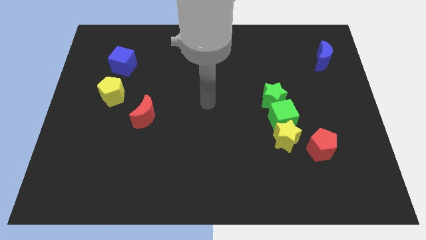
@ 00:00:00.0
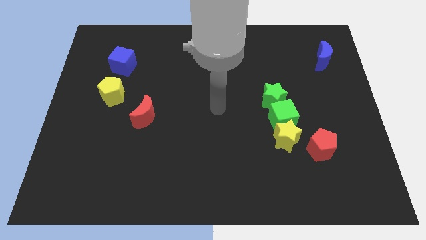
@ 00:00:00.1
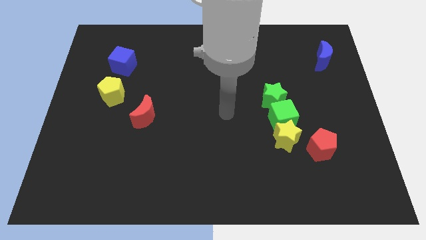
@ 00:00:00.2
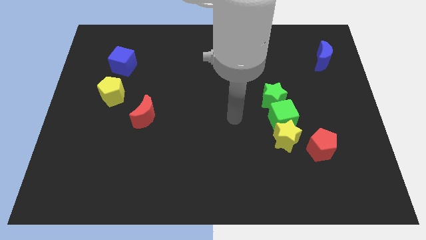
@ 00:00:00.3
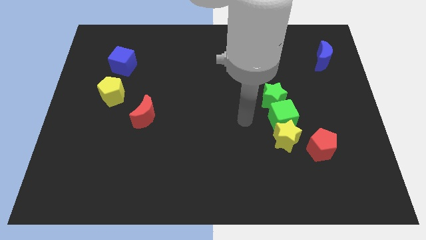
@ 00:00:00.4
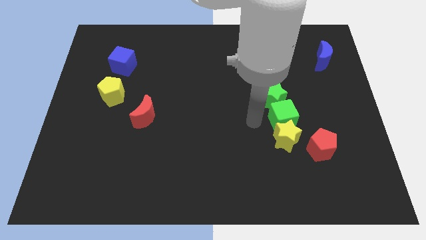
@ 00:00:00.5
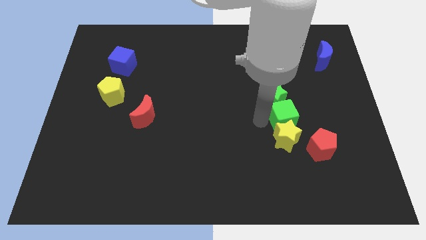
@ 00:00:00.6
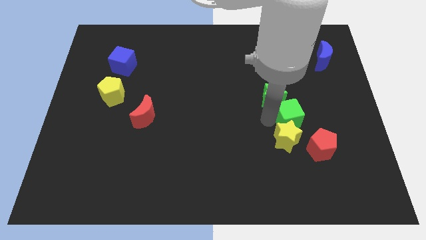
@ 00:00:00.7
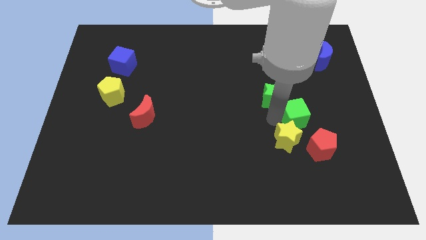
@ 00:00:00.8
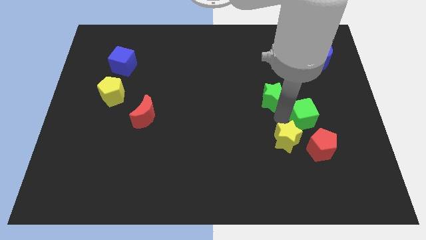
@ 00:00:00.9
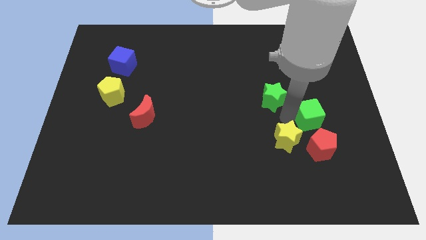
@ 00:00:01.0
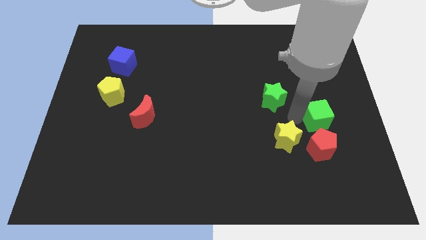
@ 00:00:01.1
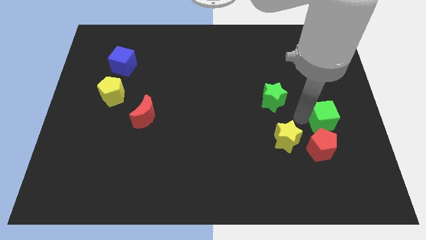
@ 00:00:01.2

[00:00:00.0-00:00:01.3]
pull the green cube apart from the yellow star and green star

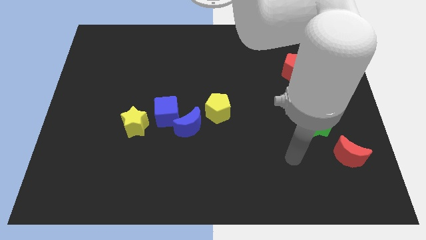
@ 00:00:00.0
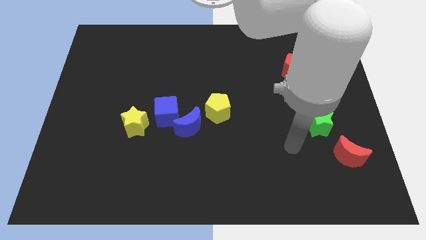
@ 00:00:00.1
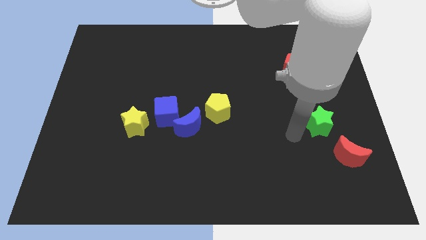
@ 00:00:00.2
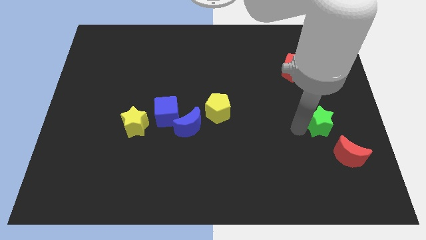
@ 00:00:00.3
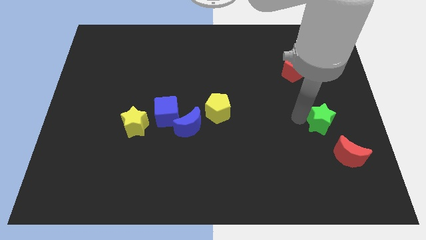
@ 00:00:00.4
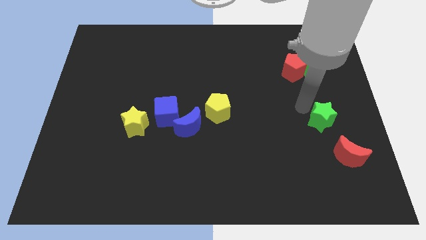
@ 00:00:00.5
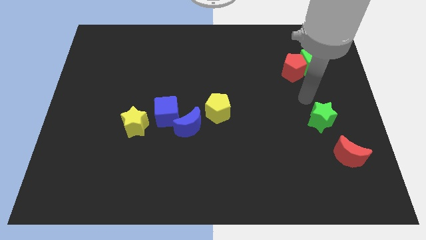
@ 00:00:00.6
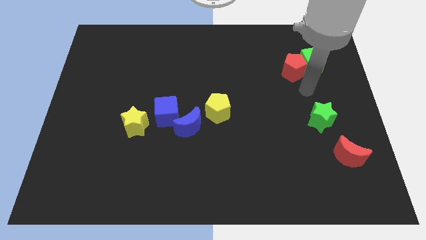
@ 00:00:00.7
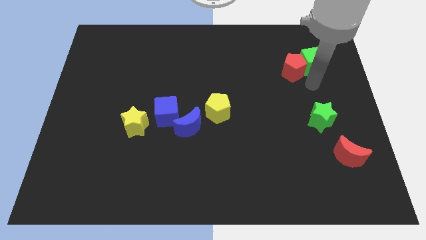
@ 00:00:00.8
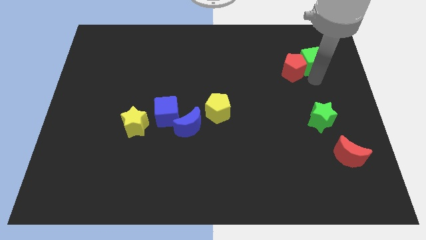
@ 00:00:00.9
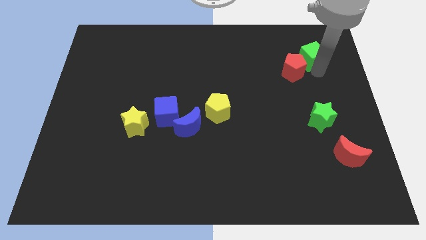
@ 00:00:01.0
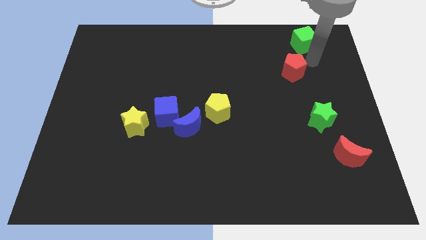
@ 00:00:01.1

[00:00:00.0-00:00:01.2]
pull the red pentagon apart from the green cube

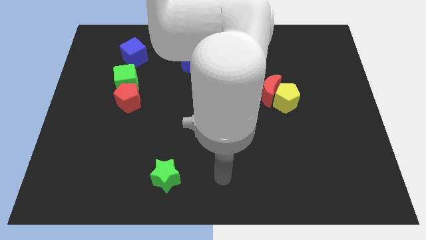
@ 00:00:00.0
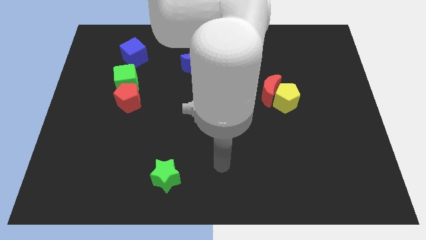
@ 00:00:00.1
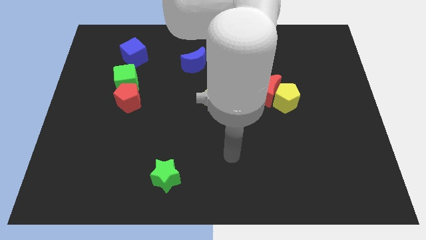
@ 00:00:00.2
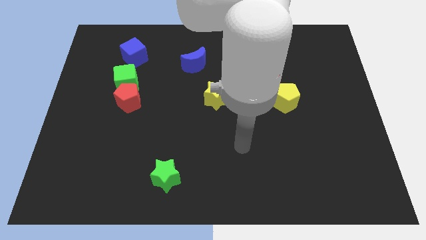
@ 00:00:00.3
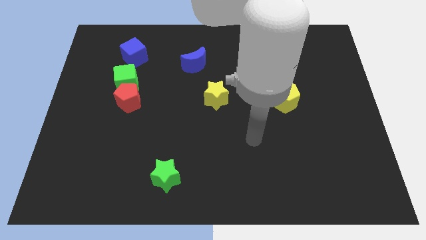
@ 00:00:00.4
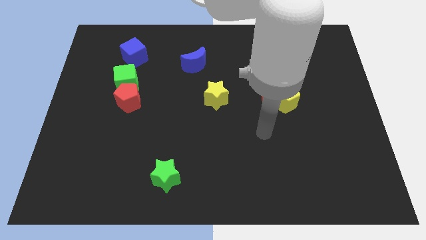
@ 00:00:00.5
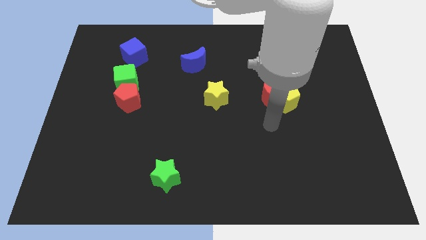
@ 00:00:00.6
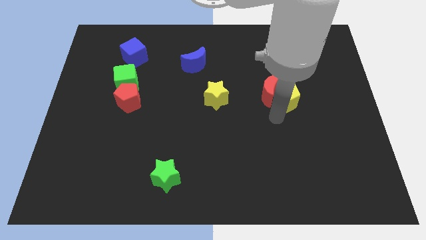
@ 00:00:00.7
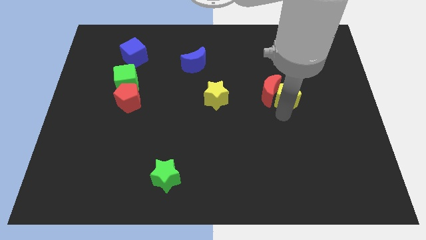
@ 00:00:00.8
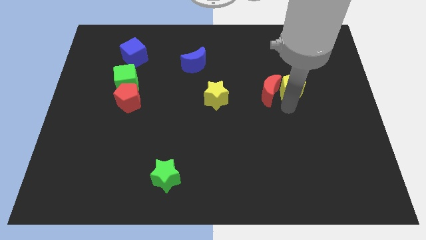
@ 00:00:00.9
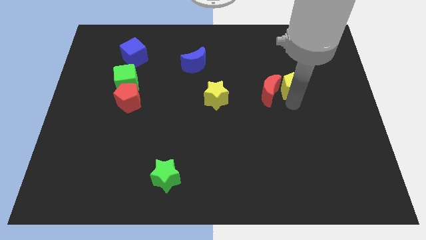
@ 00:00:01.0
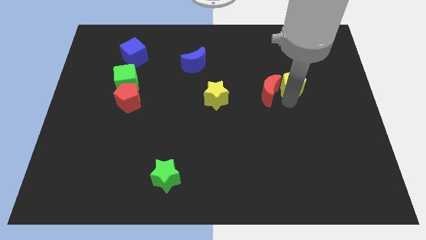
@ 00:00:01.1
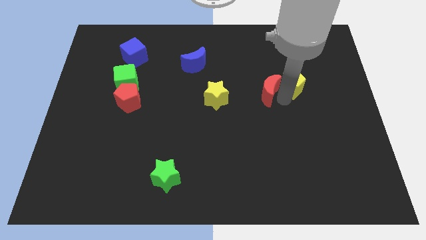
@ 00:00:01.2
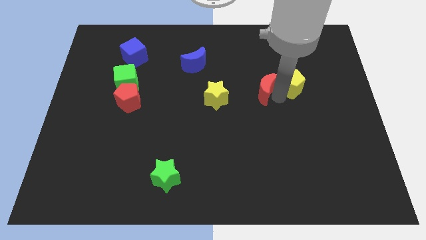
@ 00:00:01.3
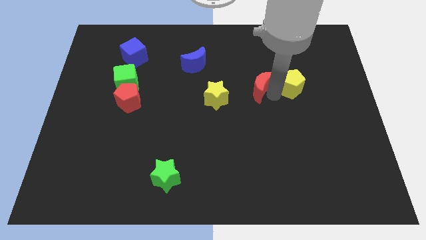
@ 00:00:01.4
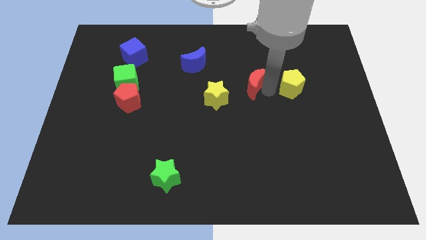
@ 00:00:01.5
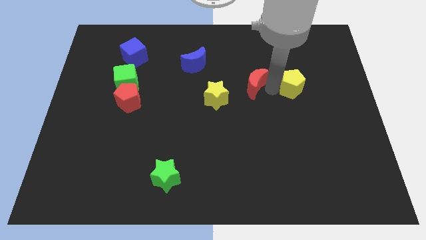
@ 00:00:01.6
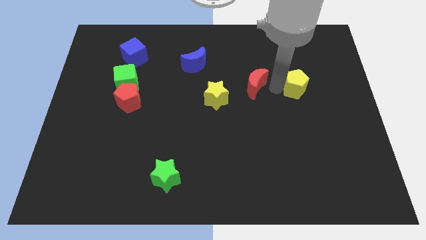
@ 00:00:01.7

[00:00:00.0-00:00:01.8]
pull the red moon apart from the yellow pentagon

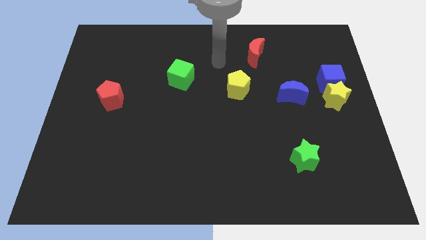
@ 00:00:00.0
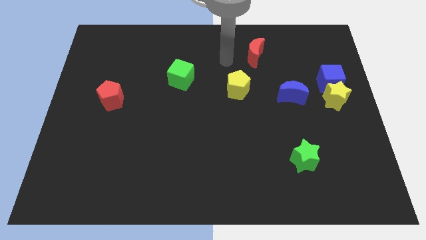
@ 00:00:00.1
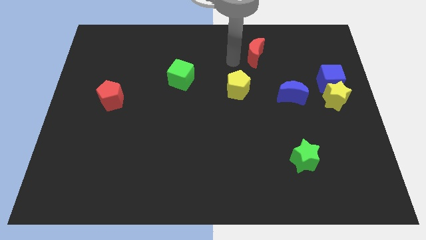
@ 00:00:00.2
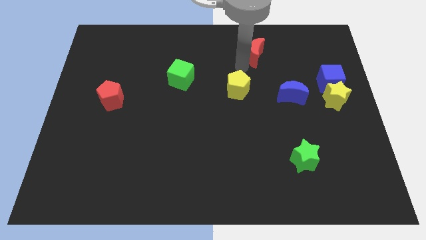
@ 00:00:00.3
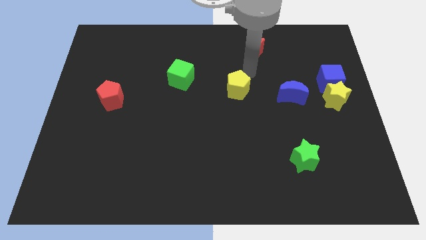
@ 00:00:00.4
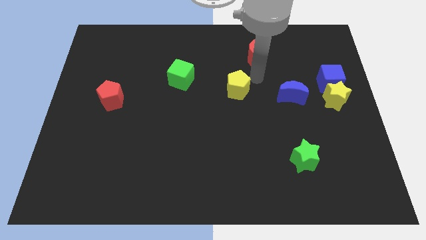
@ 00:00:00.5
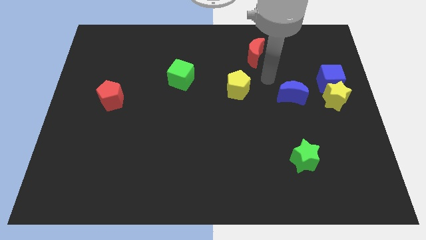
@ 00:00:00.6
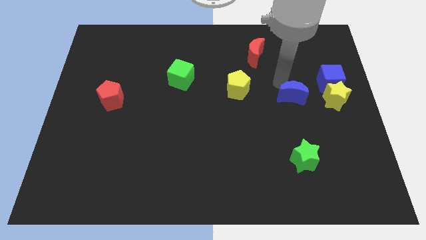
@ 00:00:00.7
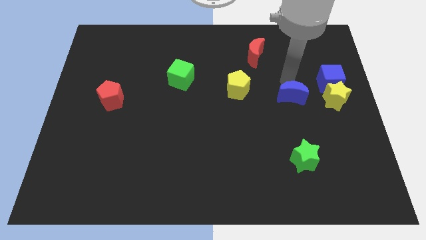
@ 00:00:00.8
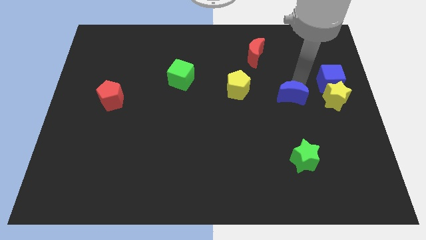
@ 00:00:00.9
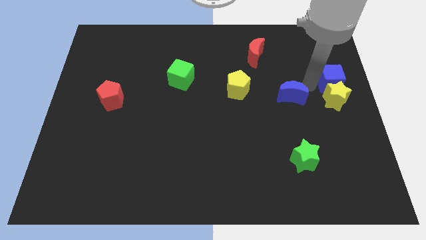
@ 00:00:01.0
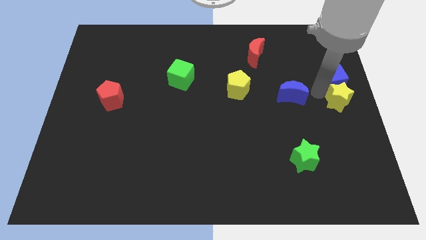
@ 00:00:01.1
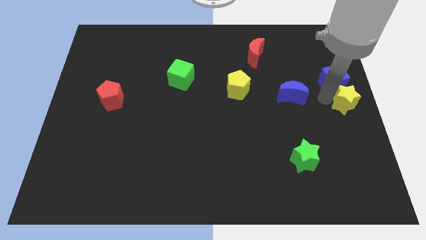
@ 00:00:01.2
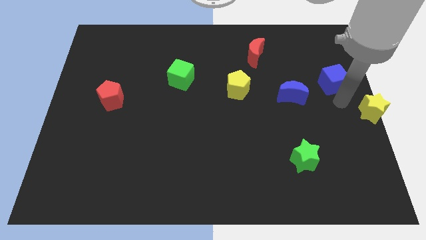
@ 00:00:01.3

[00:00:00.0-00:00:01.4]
separate the blue cube from the yellow star

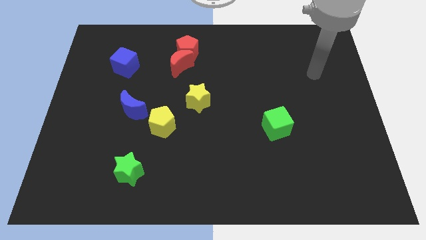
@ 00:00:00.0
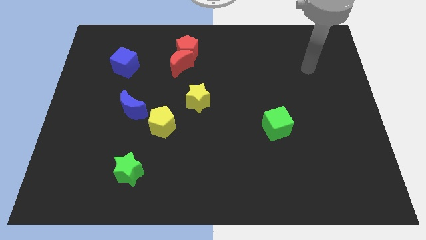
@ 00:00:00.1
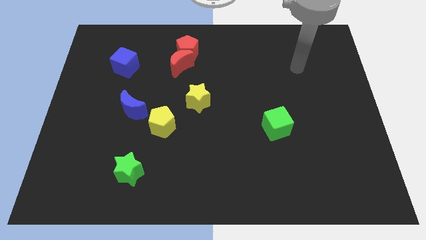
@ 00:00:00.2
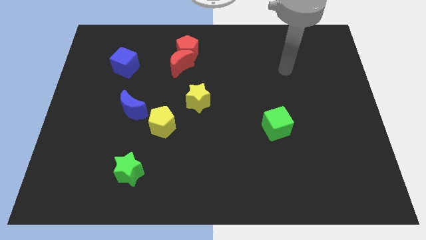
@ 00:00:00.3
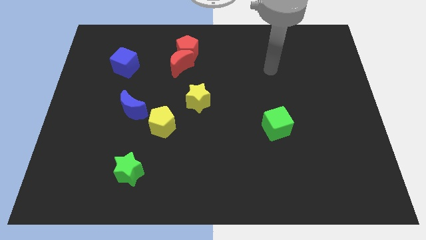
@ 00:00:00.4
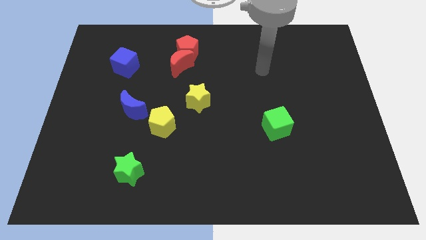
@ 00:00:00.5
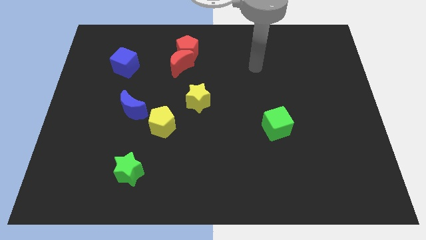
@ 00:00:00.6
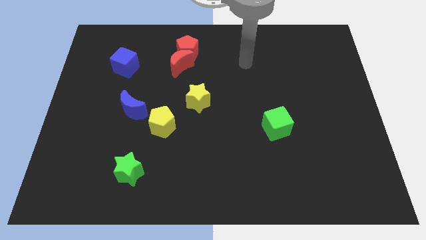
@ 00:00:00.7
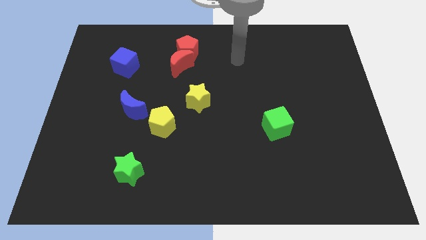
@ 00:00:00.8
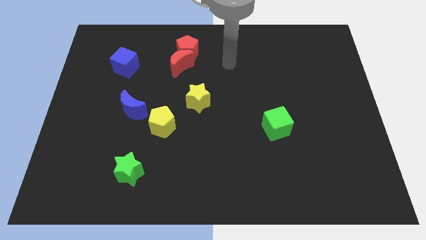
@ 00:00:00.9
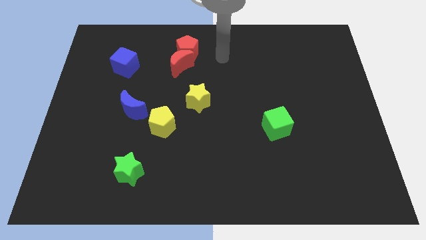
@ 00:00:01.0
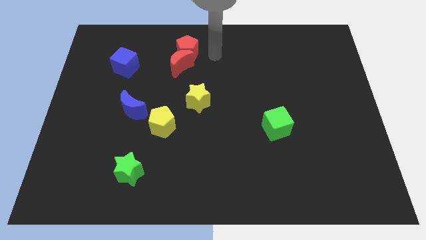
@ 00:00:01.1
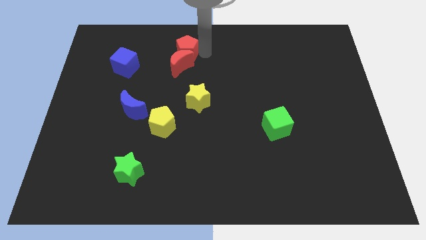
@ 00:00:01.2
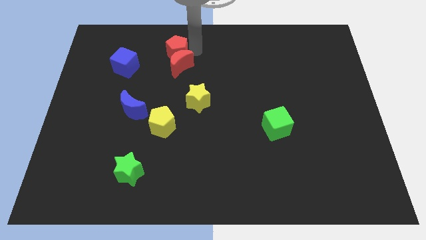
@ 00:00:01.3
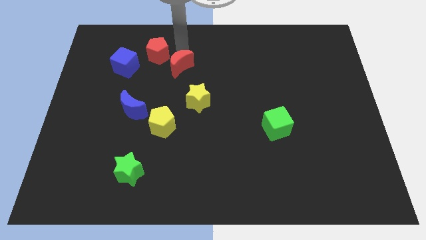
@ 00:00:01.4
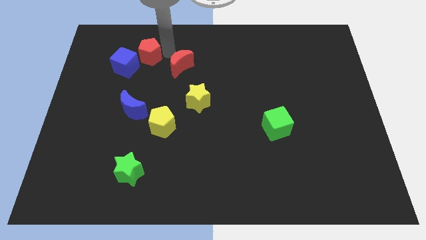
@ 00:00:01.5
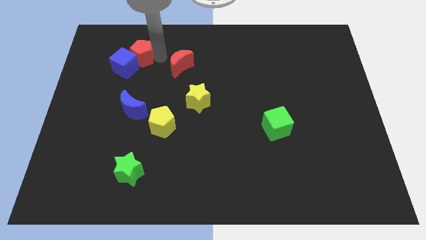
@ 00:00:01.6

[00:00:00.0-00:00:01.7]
separate the red moon from the red pentagon

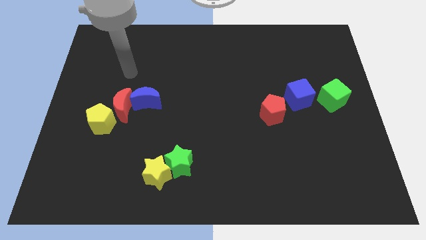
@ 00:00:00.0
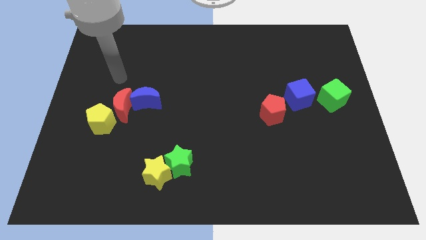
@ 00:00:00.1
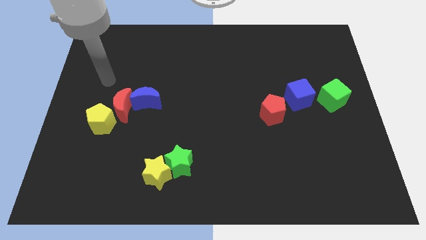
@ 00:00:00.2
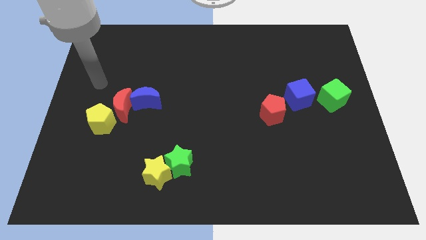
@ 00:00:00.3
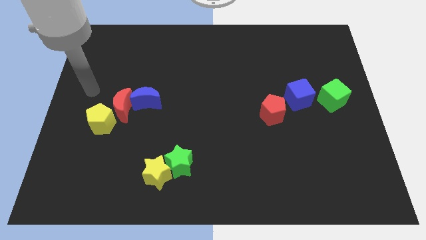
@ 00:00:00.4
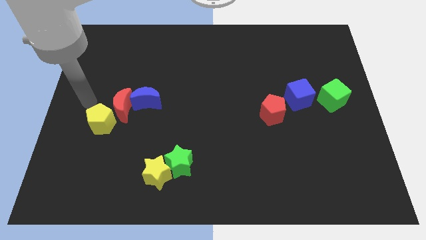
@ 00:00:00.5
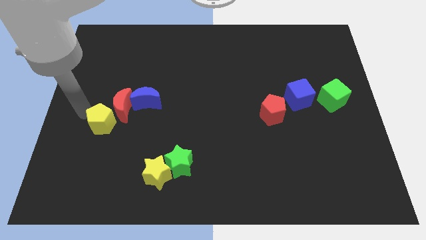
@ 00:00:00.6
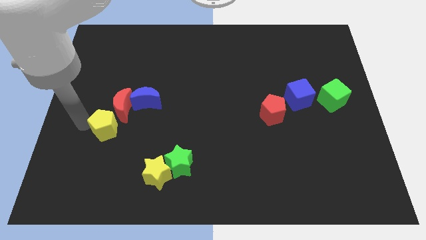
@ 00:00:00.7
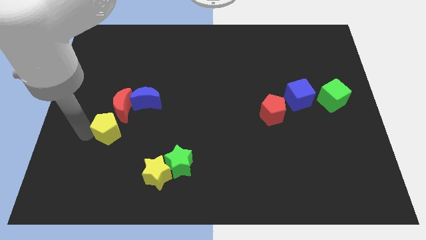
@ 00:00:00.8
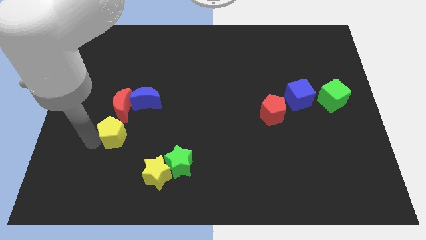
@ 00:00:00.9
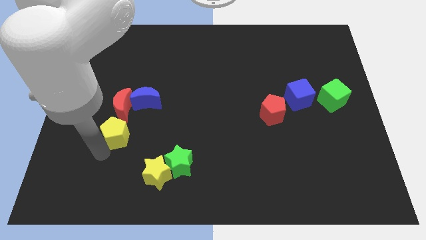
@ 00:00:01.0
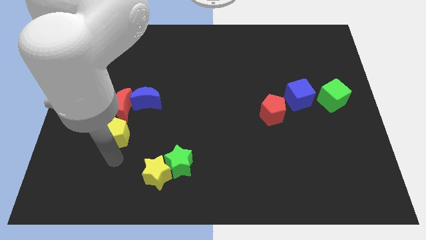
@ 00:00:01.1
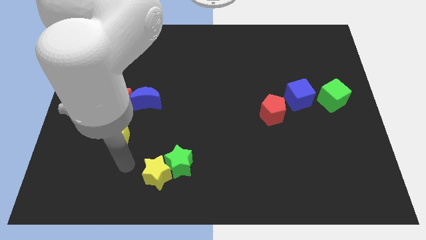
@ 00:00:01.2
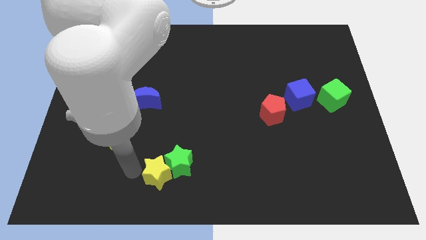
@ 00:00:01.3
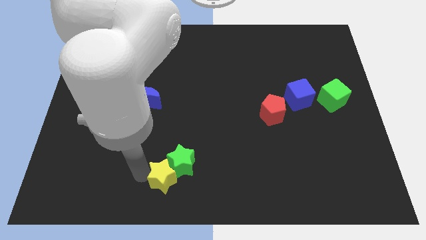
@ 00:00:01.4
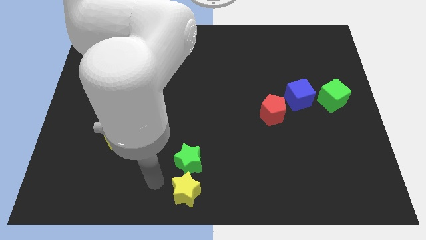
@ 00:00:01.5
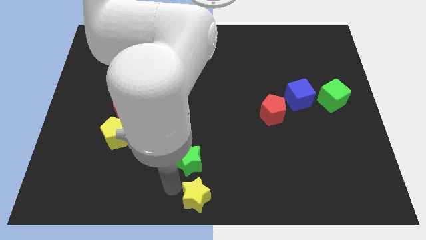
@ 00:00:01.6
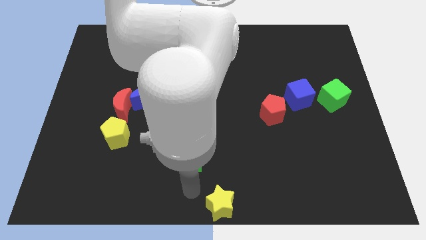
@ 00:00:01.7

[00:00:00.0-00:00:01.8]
move the green star away from the yellow star

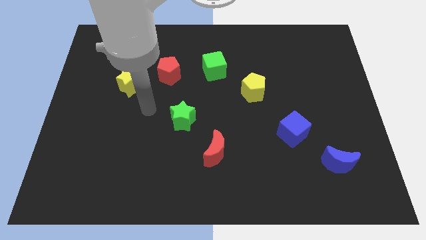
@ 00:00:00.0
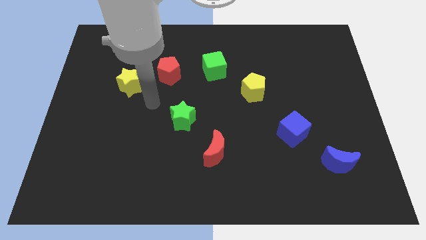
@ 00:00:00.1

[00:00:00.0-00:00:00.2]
separate the red pentagon from the yellow star
